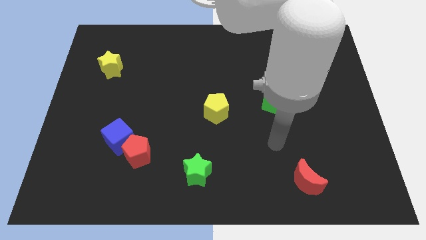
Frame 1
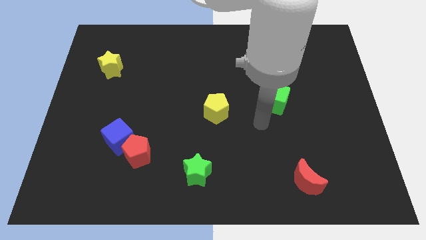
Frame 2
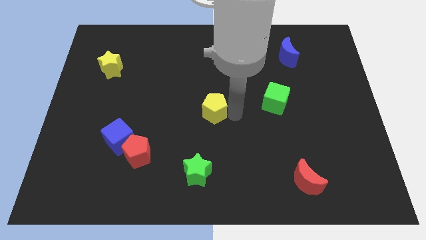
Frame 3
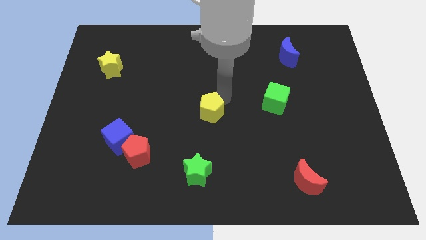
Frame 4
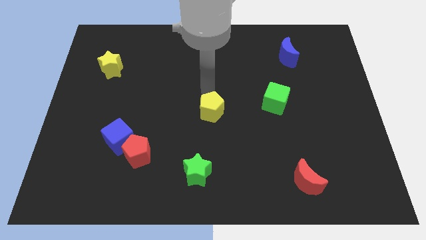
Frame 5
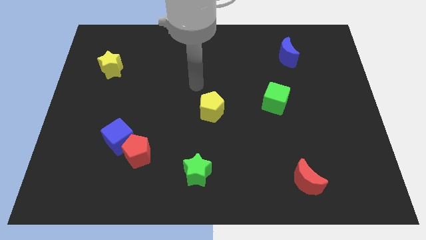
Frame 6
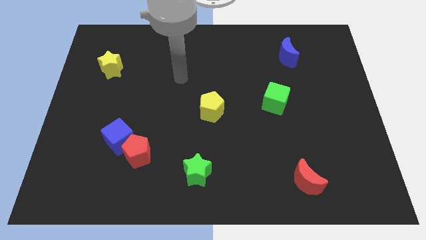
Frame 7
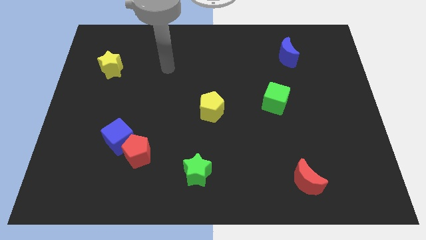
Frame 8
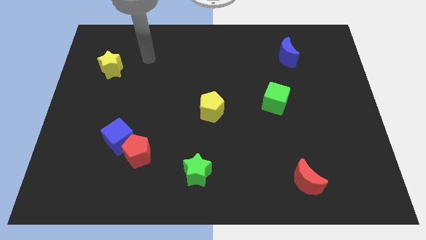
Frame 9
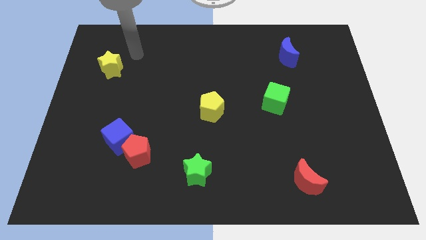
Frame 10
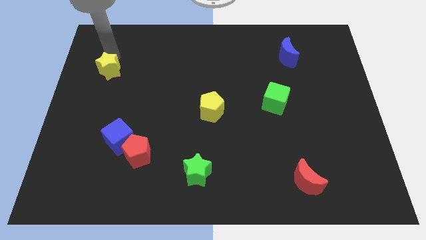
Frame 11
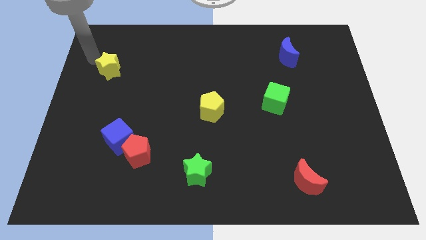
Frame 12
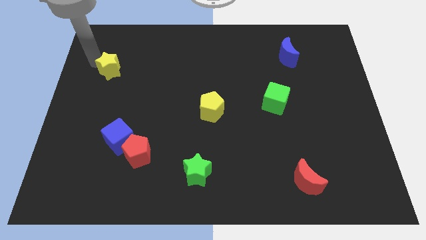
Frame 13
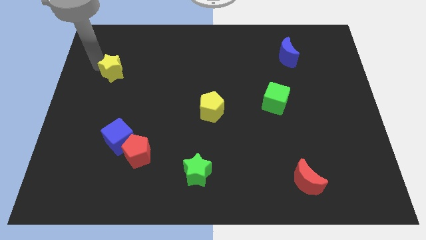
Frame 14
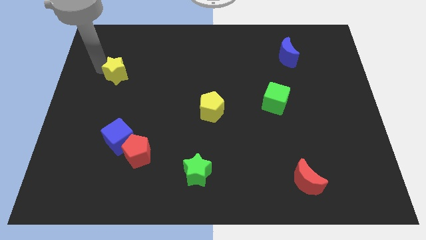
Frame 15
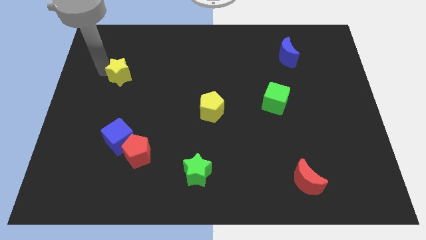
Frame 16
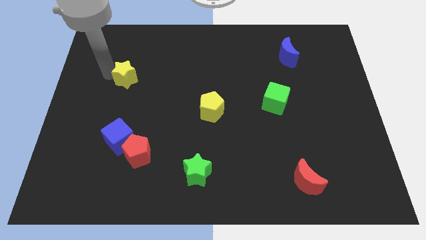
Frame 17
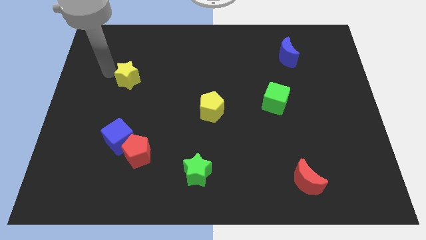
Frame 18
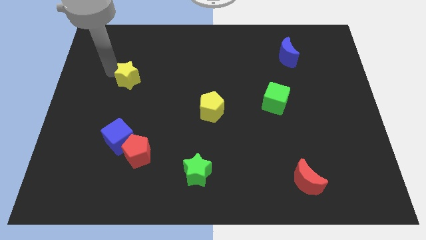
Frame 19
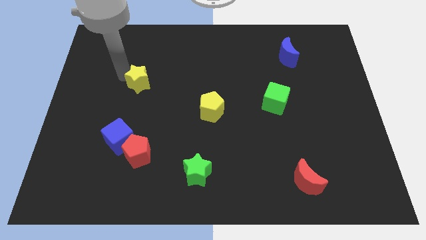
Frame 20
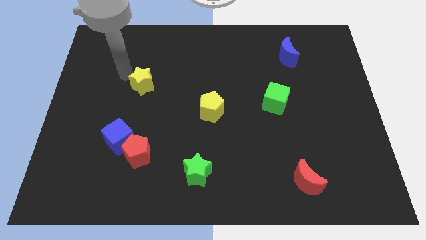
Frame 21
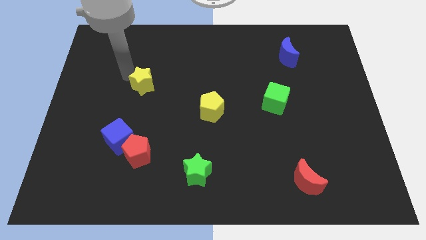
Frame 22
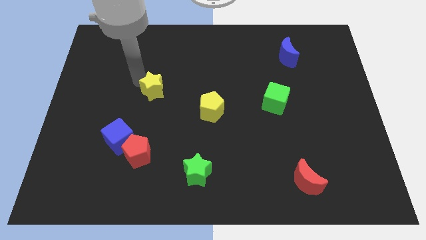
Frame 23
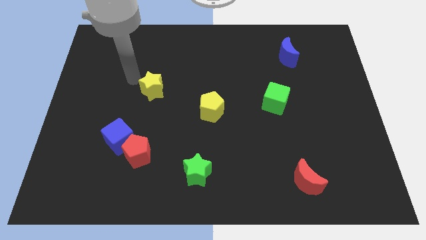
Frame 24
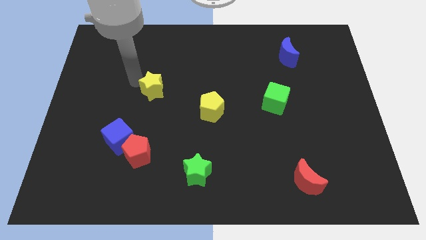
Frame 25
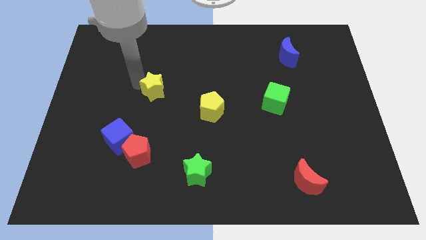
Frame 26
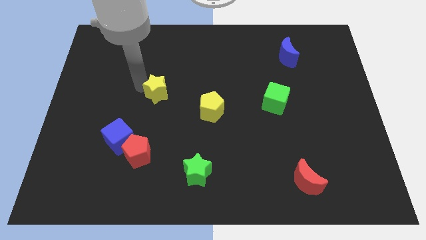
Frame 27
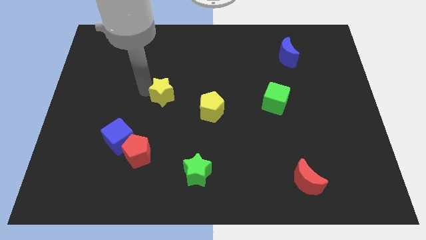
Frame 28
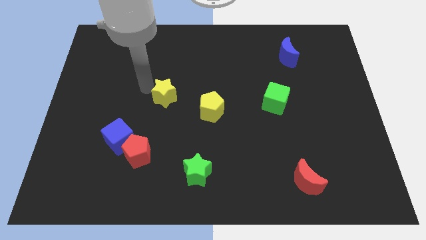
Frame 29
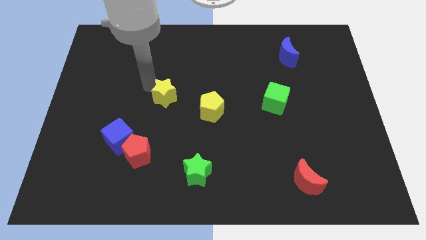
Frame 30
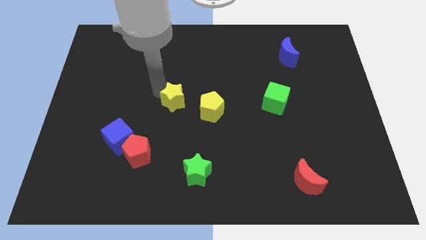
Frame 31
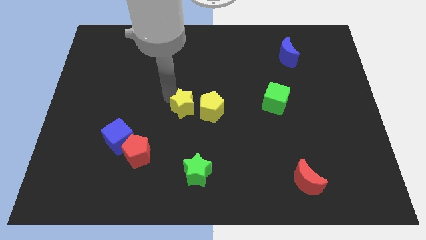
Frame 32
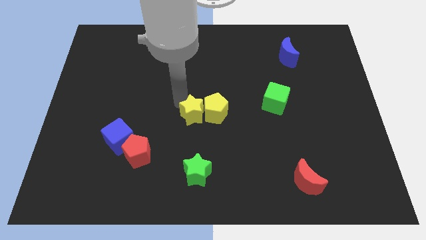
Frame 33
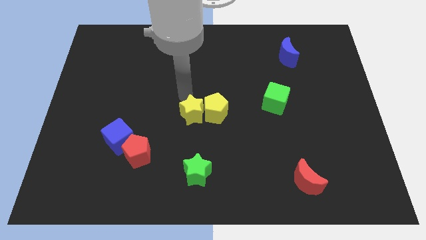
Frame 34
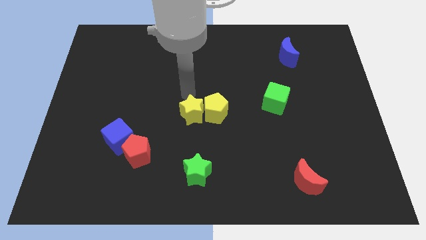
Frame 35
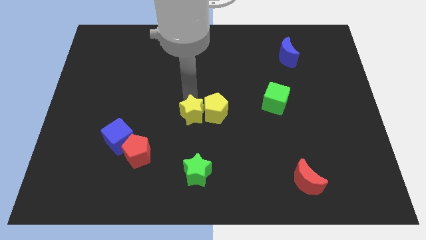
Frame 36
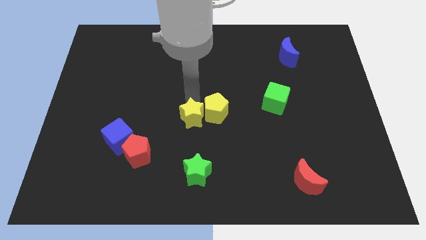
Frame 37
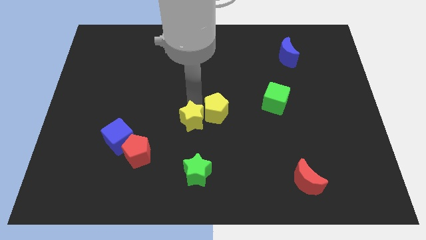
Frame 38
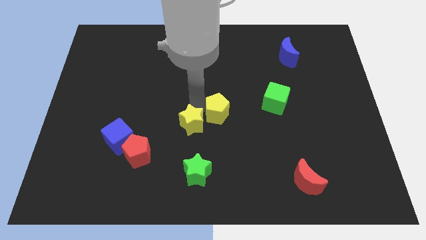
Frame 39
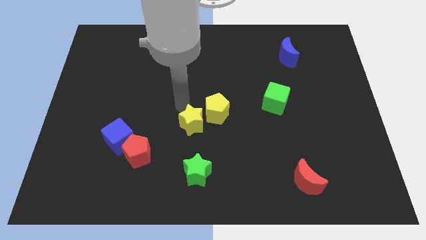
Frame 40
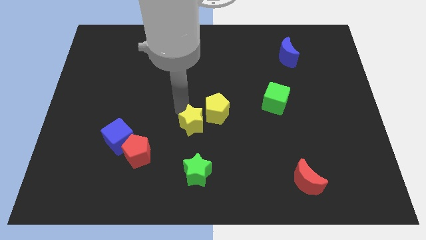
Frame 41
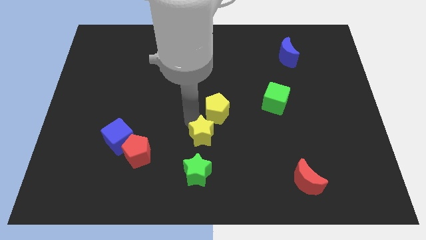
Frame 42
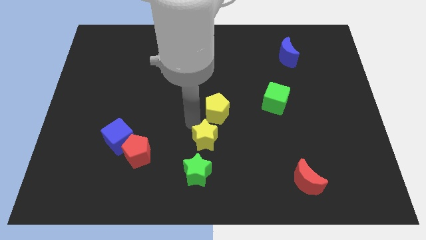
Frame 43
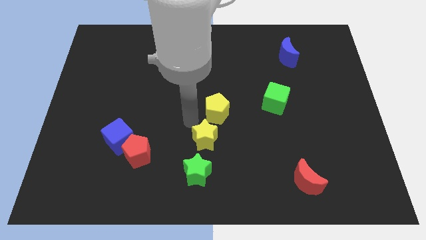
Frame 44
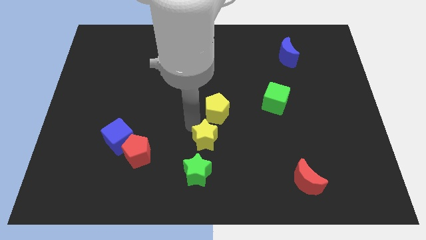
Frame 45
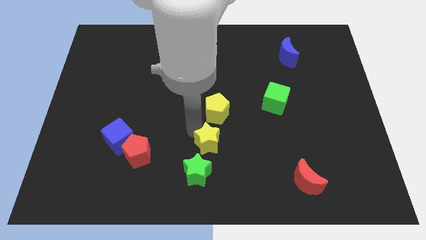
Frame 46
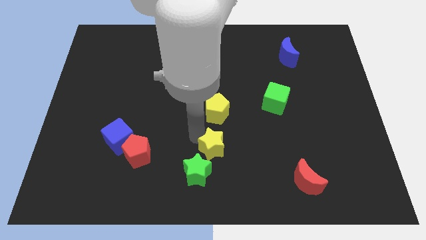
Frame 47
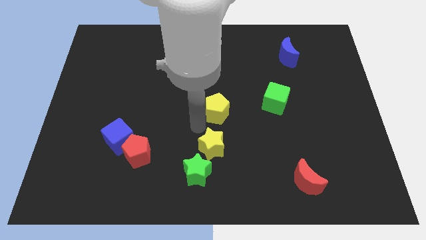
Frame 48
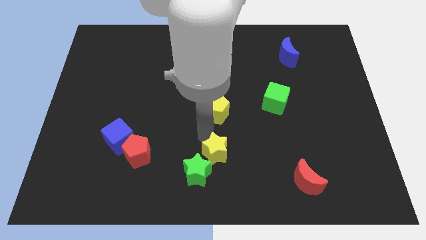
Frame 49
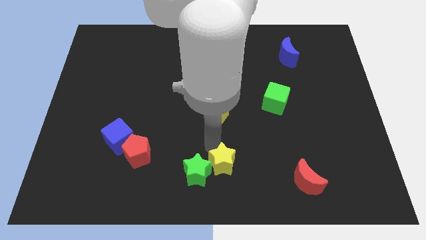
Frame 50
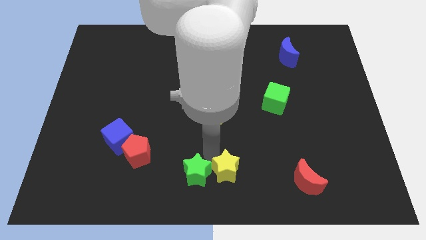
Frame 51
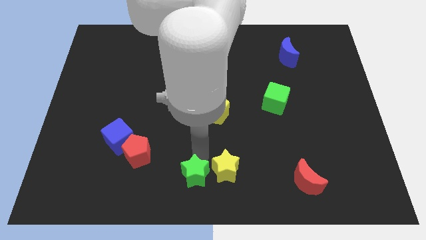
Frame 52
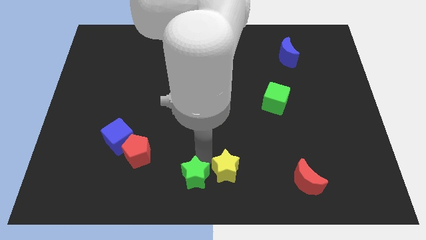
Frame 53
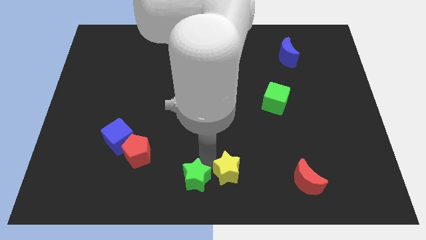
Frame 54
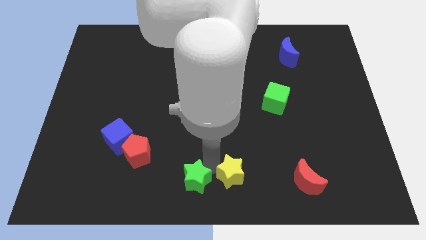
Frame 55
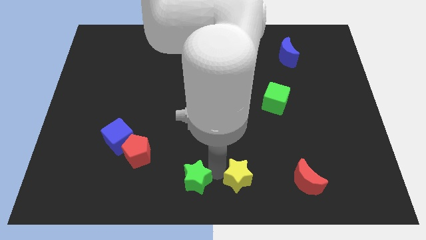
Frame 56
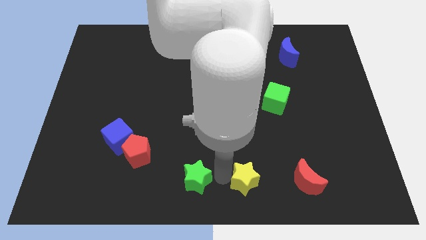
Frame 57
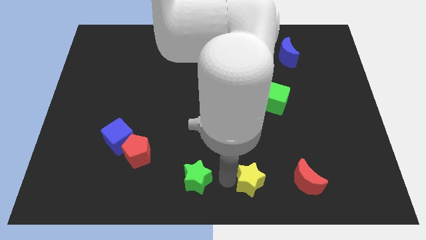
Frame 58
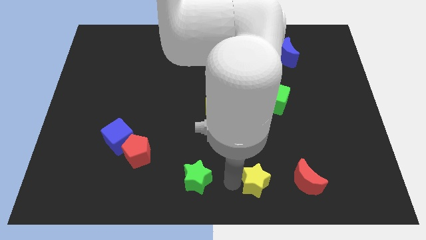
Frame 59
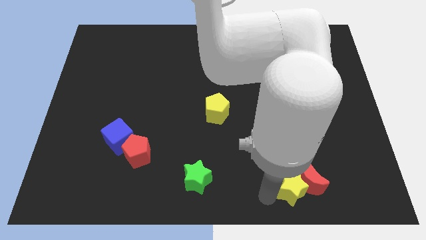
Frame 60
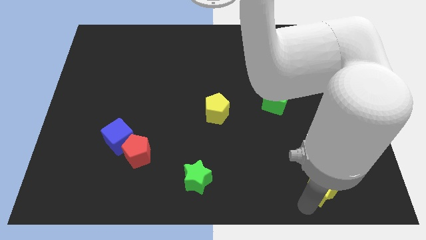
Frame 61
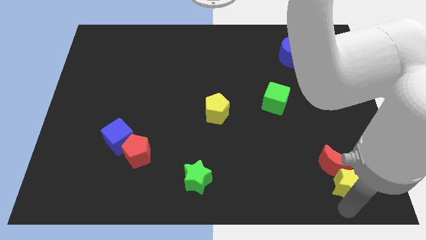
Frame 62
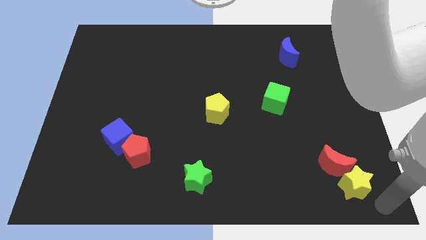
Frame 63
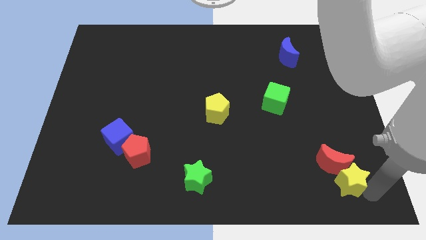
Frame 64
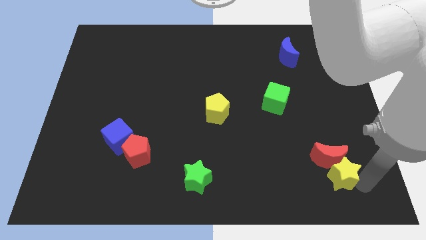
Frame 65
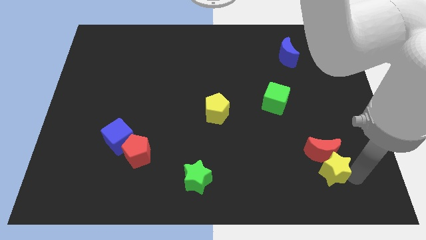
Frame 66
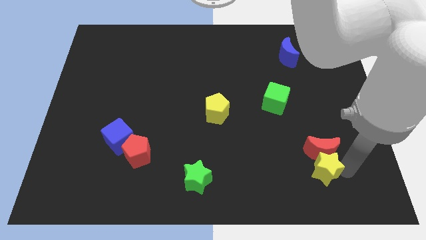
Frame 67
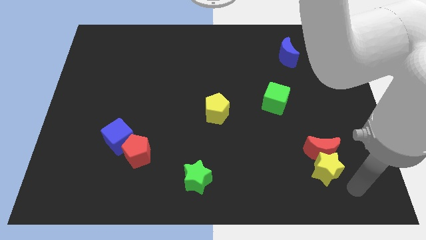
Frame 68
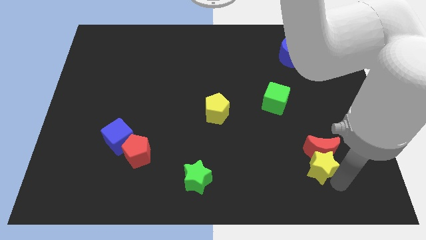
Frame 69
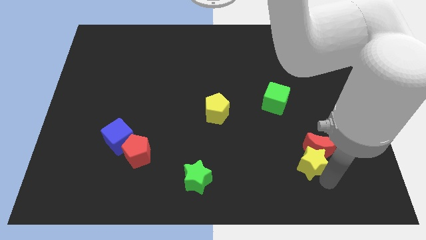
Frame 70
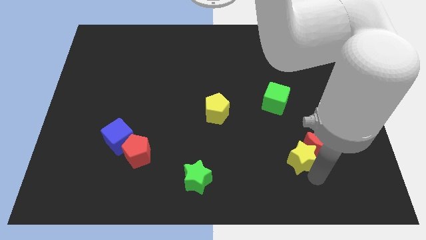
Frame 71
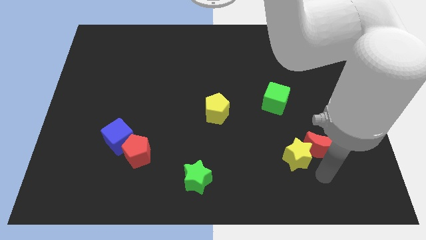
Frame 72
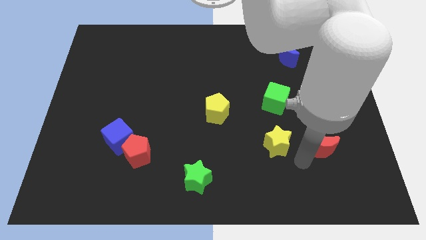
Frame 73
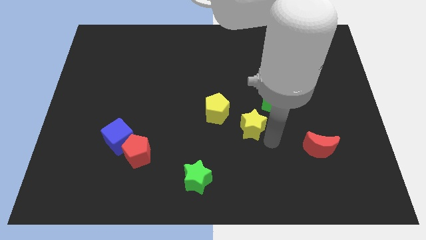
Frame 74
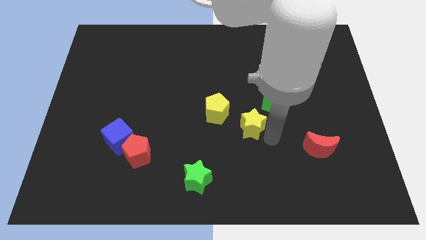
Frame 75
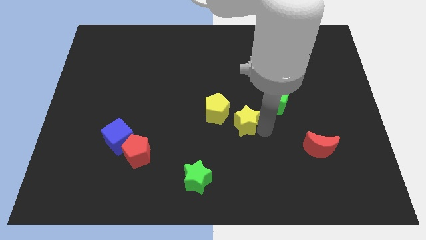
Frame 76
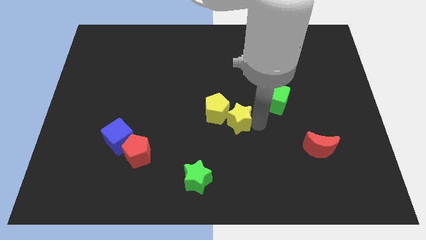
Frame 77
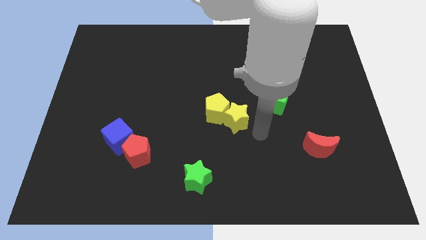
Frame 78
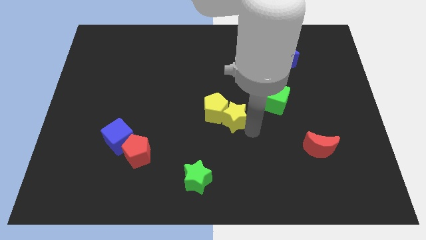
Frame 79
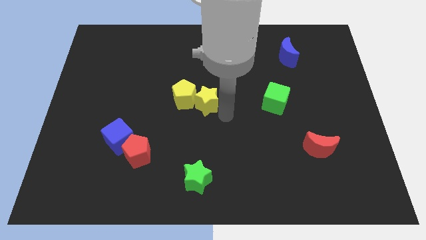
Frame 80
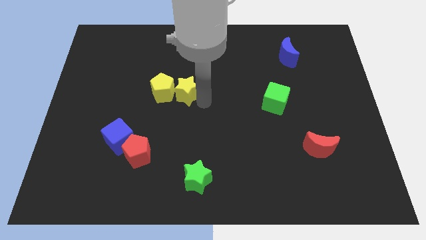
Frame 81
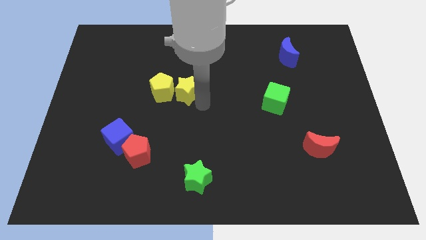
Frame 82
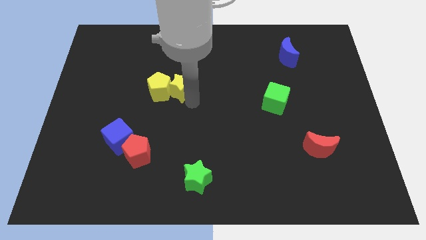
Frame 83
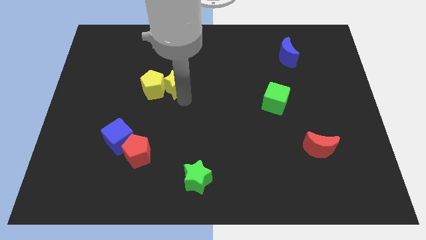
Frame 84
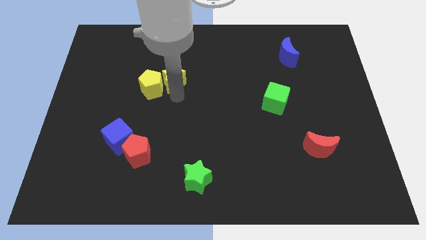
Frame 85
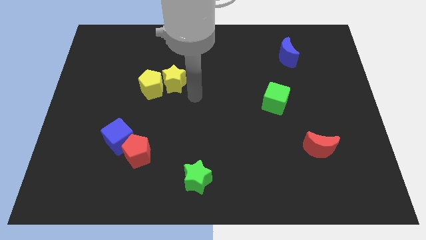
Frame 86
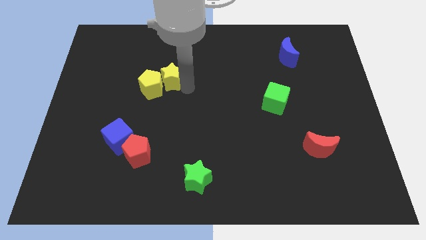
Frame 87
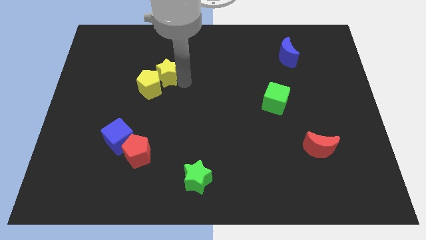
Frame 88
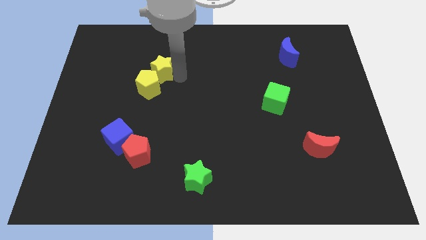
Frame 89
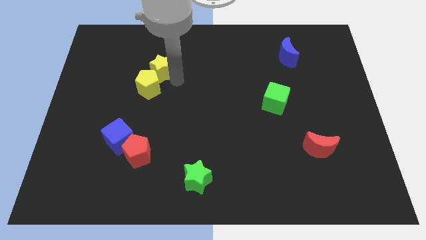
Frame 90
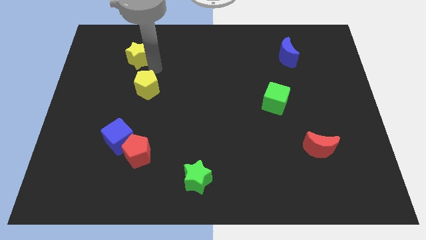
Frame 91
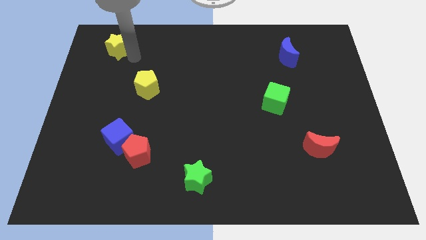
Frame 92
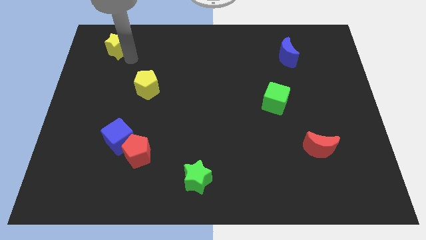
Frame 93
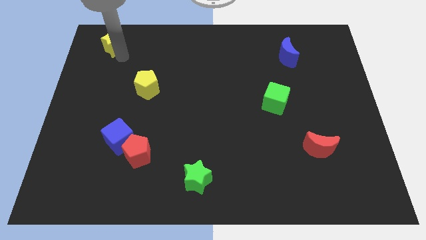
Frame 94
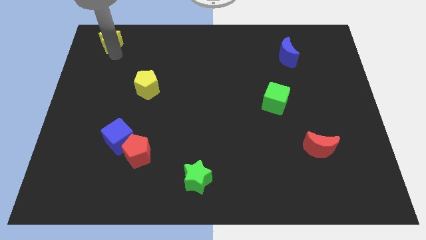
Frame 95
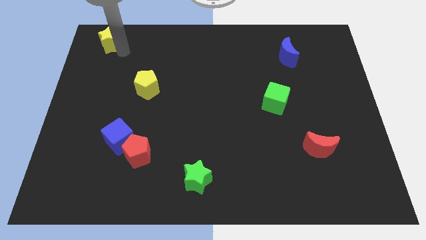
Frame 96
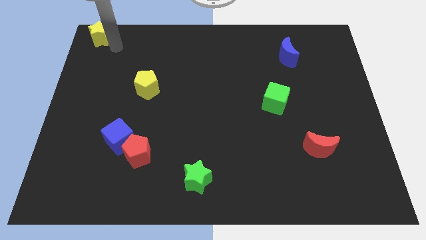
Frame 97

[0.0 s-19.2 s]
move the yellow star to the upper left corner
